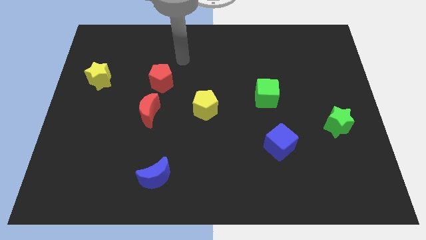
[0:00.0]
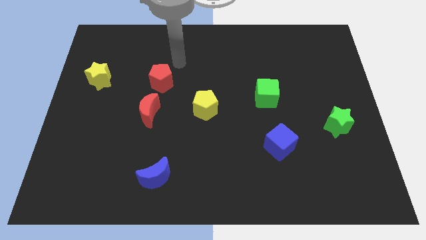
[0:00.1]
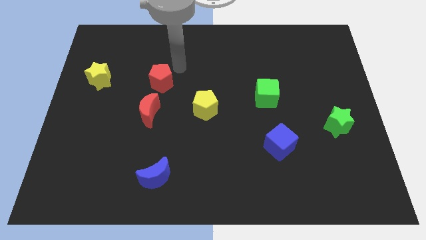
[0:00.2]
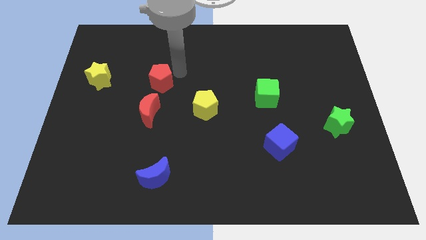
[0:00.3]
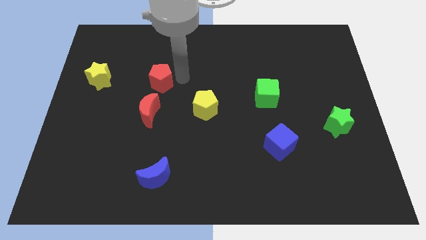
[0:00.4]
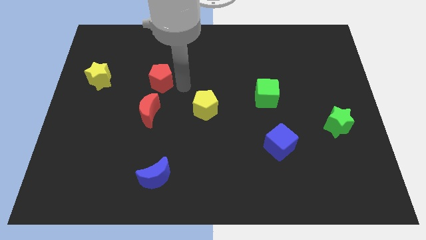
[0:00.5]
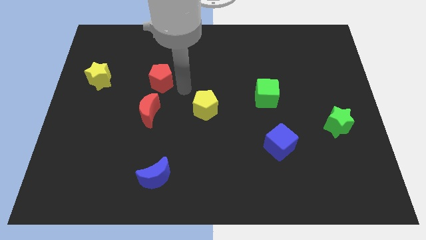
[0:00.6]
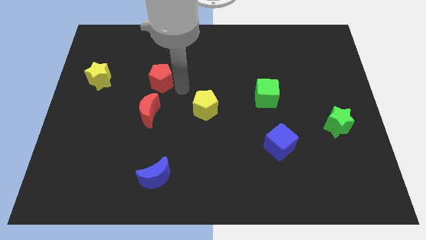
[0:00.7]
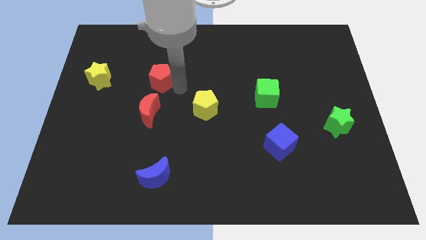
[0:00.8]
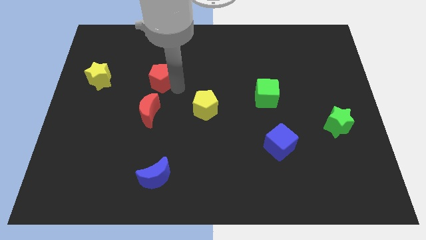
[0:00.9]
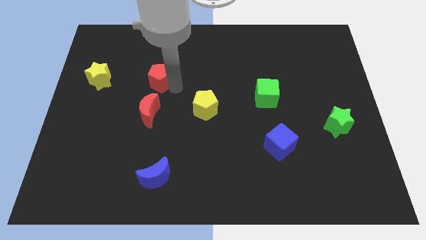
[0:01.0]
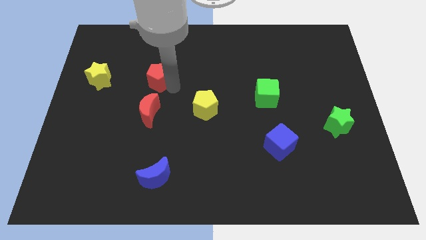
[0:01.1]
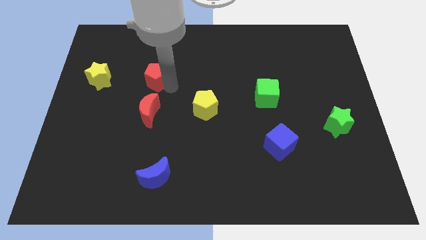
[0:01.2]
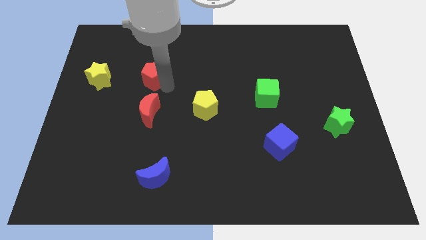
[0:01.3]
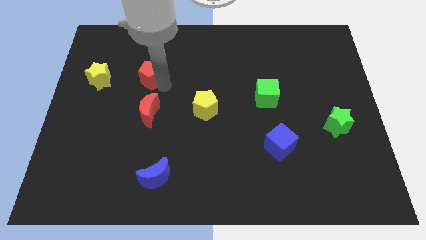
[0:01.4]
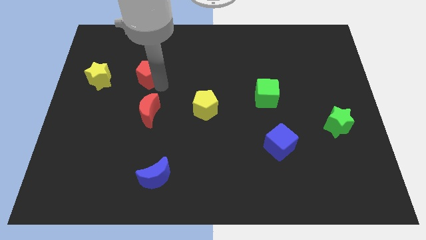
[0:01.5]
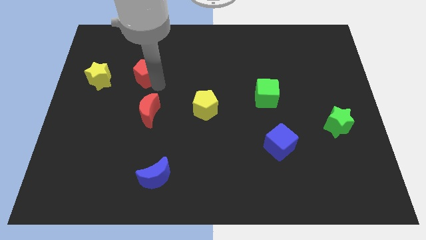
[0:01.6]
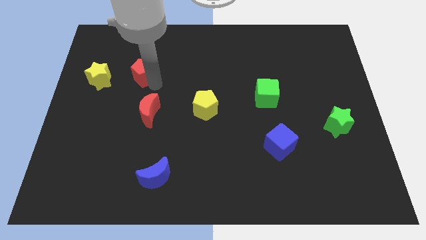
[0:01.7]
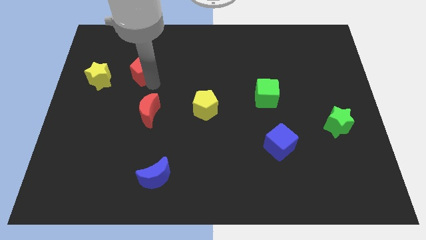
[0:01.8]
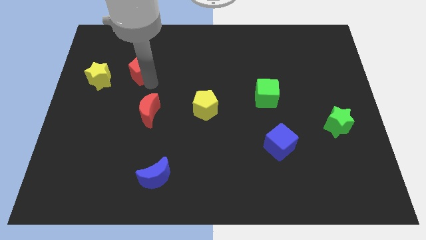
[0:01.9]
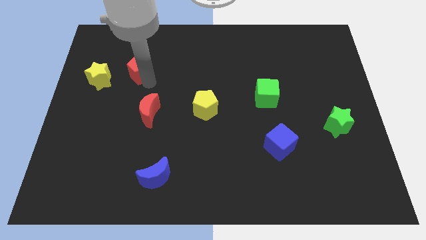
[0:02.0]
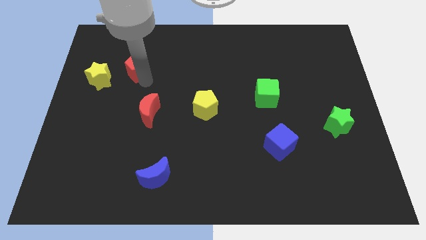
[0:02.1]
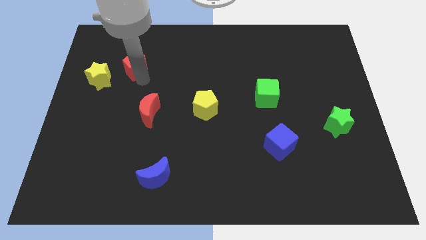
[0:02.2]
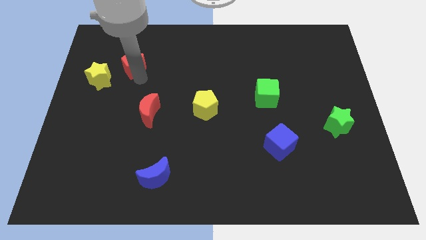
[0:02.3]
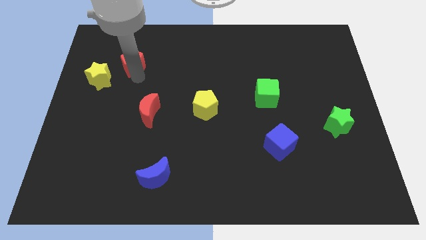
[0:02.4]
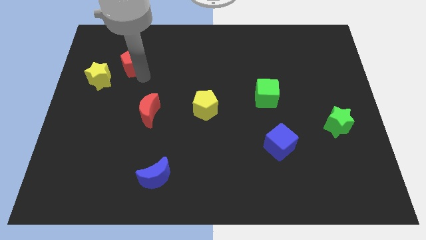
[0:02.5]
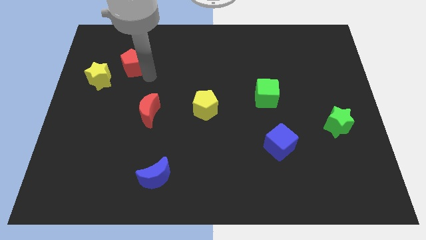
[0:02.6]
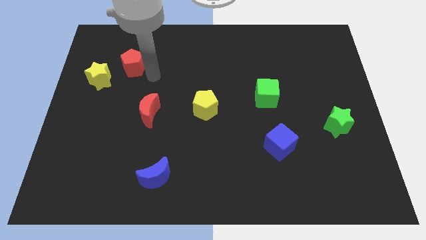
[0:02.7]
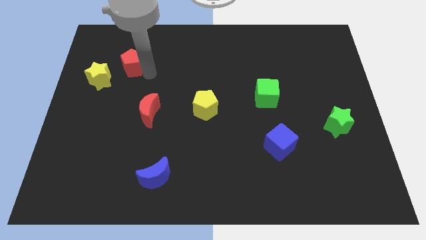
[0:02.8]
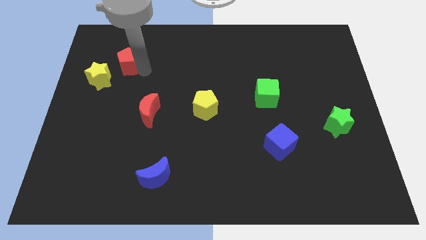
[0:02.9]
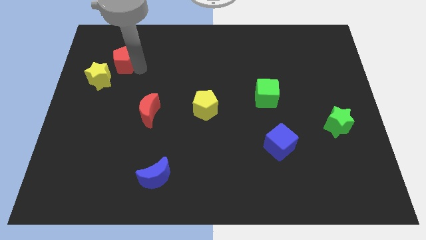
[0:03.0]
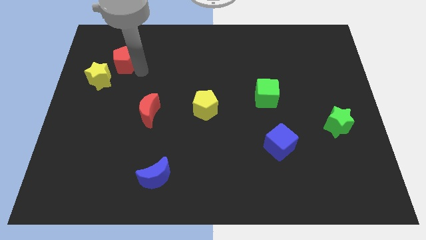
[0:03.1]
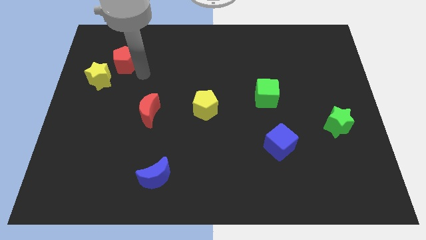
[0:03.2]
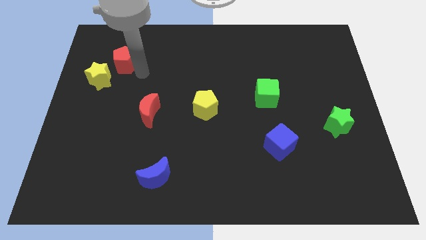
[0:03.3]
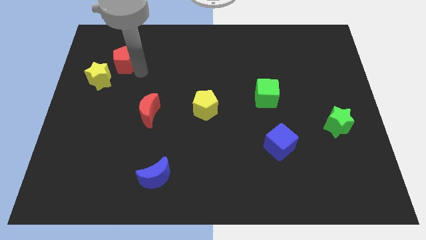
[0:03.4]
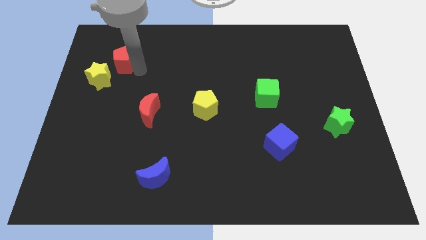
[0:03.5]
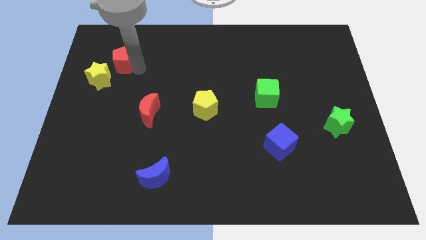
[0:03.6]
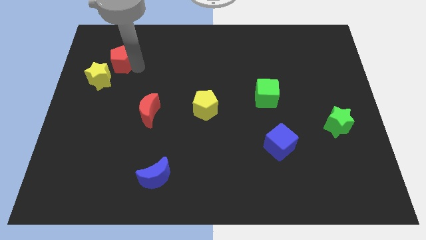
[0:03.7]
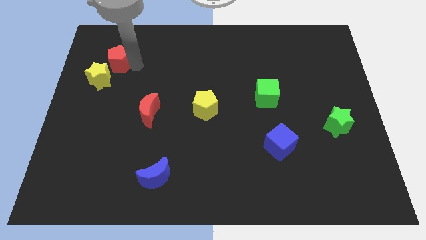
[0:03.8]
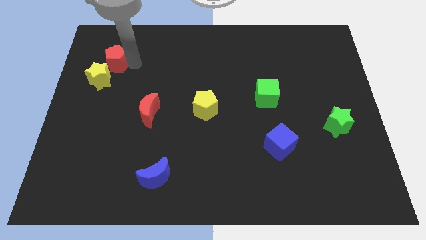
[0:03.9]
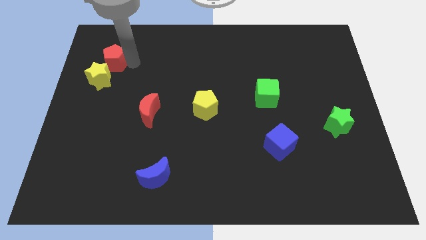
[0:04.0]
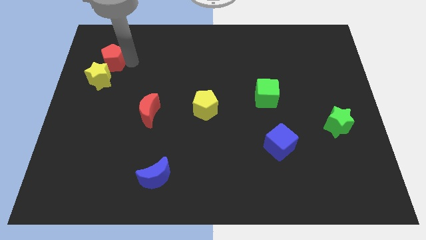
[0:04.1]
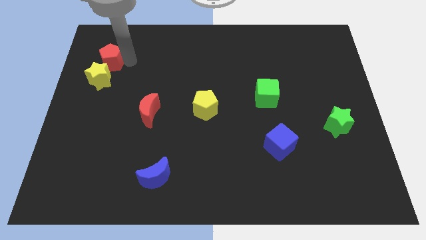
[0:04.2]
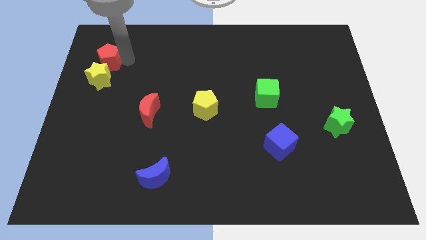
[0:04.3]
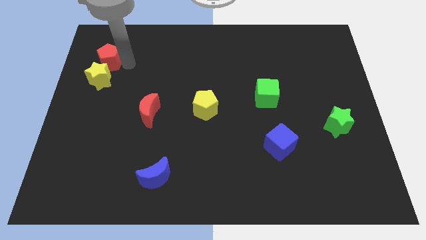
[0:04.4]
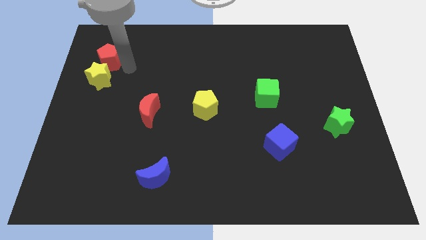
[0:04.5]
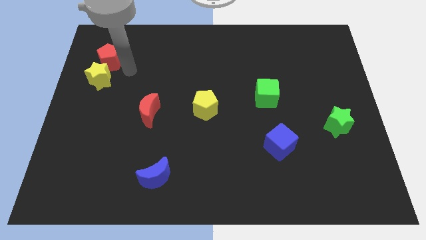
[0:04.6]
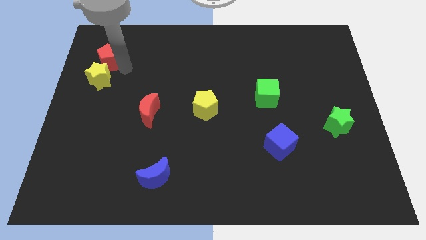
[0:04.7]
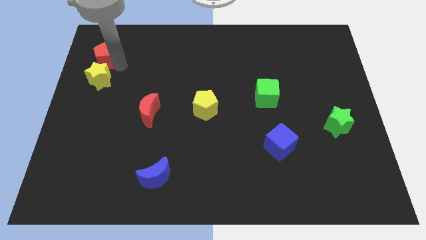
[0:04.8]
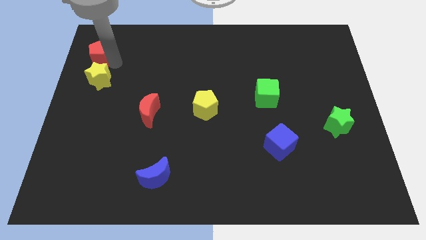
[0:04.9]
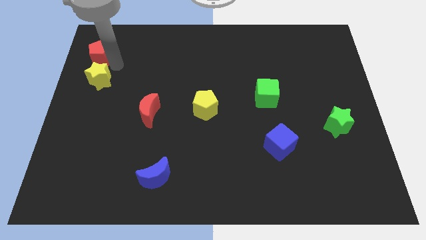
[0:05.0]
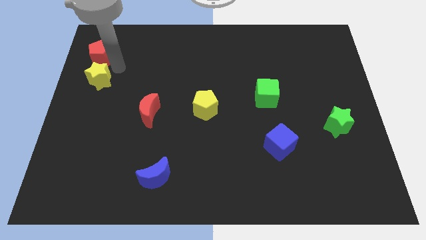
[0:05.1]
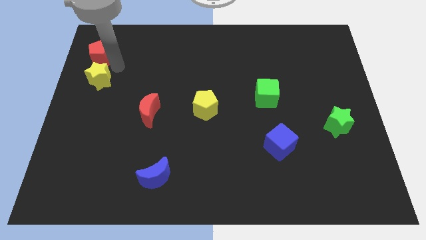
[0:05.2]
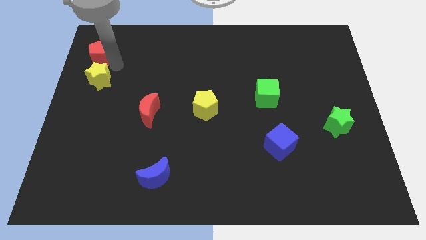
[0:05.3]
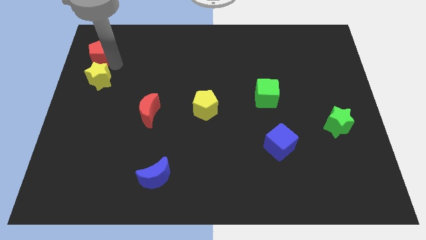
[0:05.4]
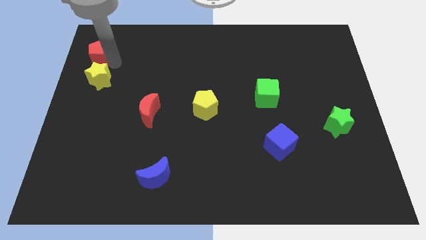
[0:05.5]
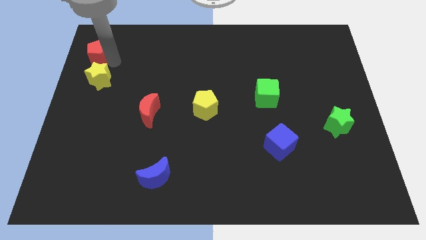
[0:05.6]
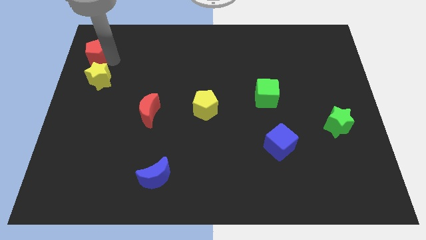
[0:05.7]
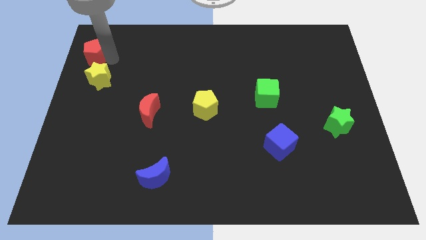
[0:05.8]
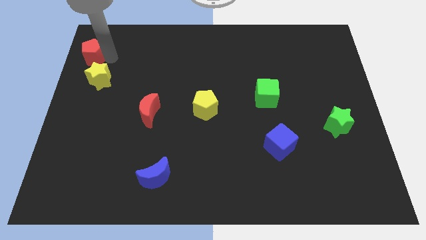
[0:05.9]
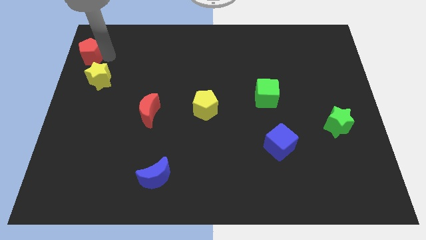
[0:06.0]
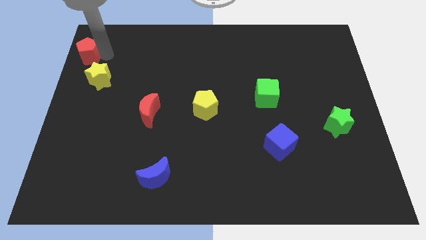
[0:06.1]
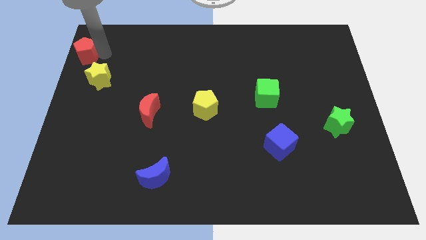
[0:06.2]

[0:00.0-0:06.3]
put the red pentagon to the top left

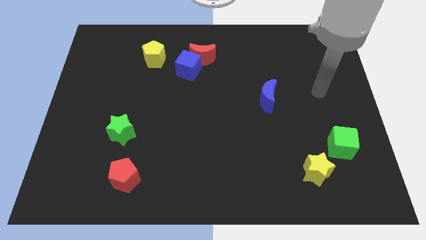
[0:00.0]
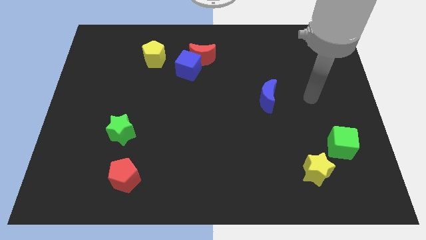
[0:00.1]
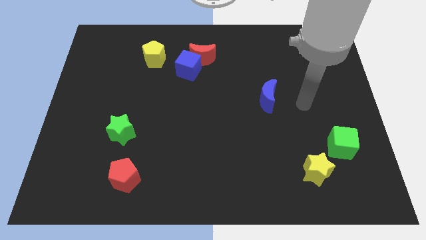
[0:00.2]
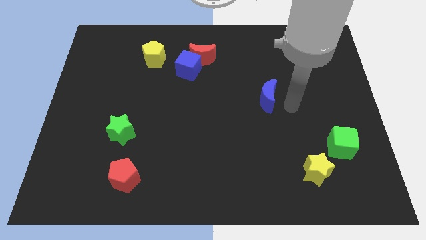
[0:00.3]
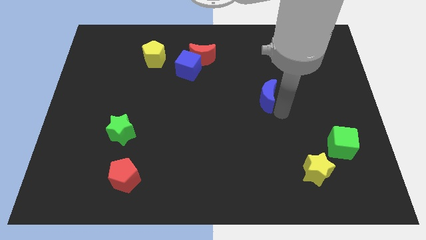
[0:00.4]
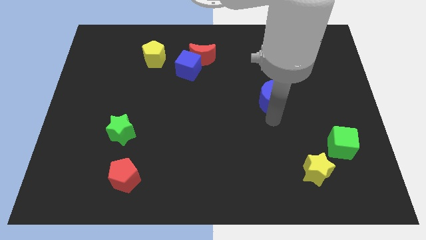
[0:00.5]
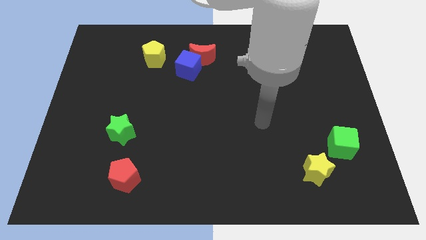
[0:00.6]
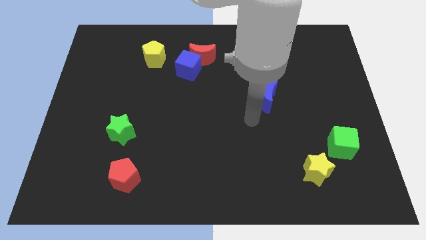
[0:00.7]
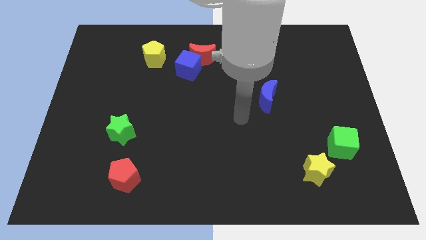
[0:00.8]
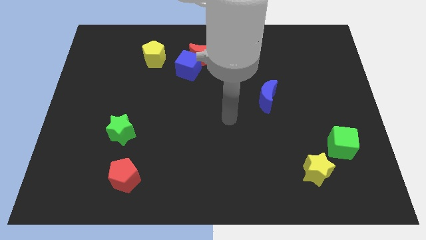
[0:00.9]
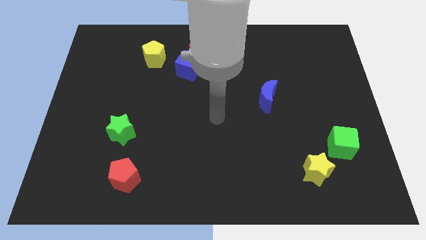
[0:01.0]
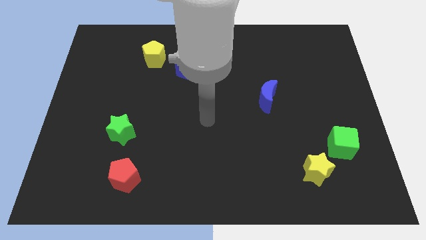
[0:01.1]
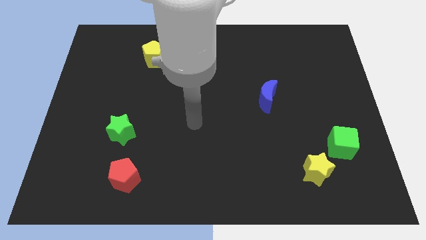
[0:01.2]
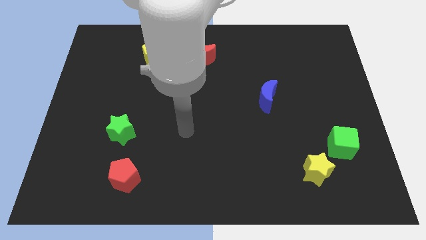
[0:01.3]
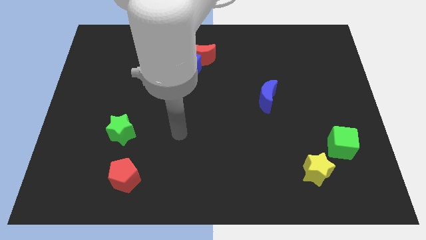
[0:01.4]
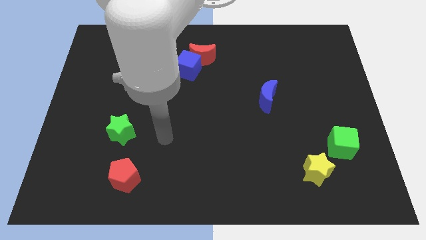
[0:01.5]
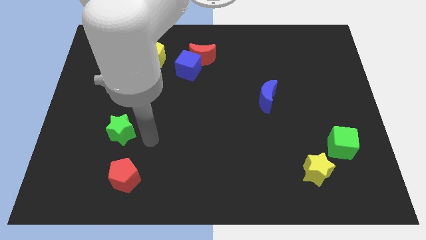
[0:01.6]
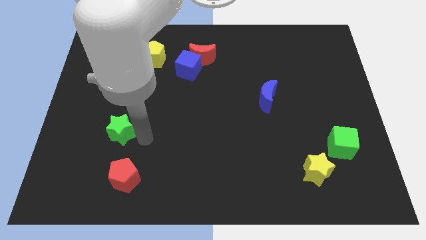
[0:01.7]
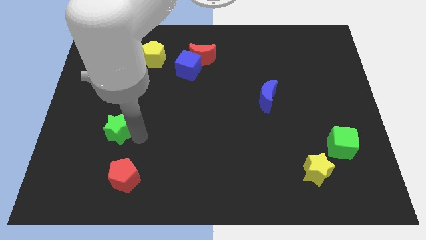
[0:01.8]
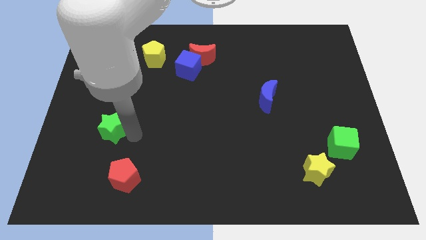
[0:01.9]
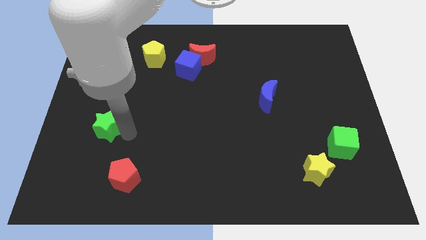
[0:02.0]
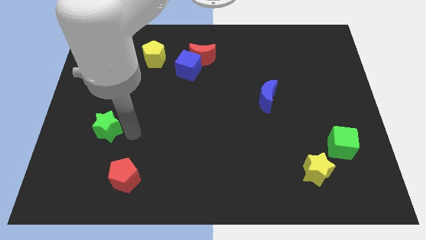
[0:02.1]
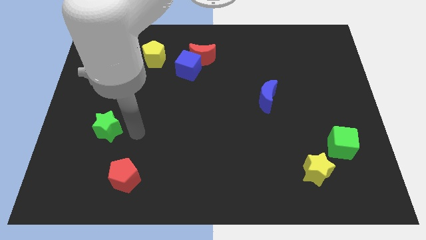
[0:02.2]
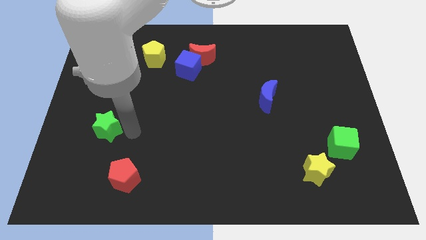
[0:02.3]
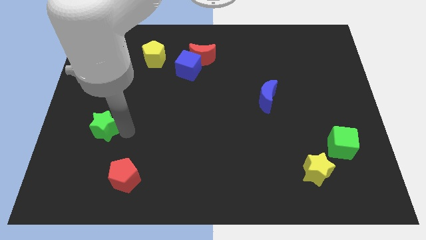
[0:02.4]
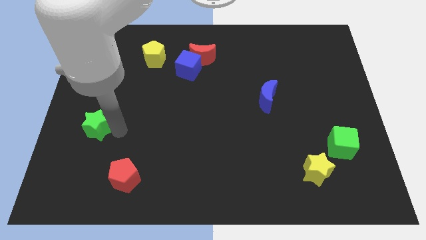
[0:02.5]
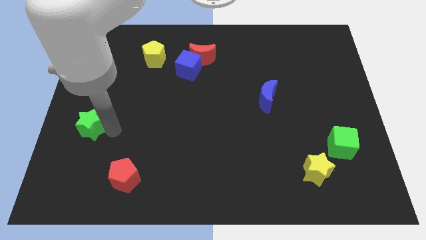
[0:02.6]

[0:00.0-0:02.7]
move the green star to the left side
